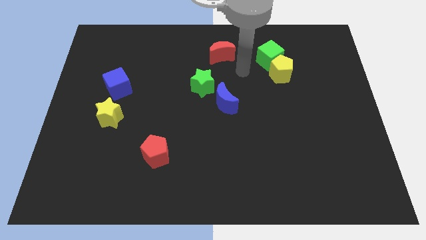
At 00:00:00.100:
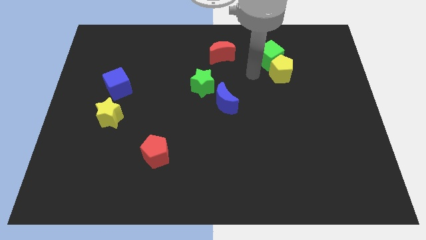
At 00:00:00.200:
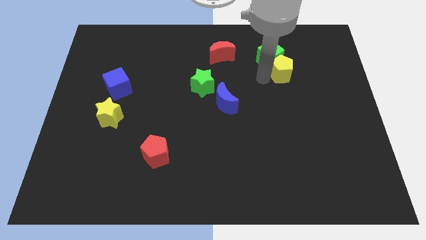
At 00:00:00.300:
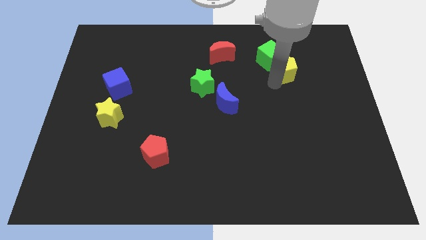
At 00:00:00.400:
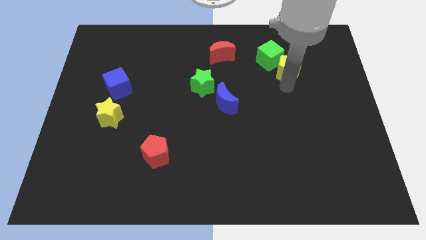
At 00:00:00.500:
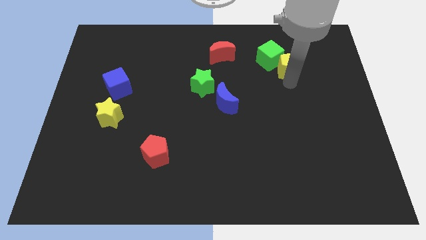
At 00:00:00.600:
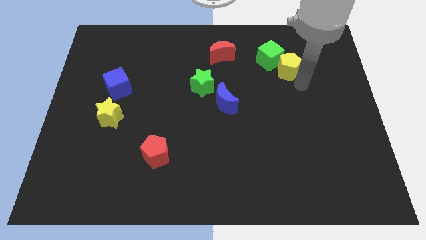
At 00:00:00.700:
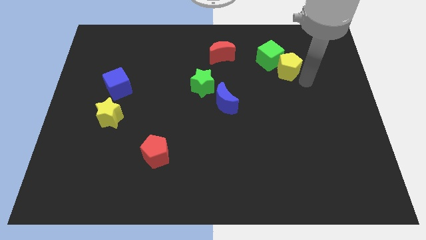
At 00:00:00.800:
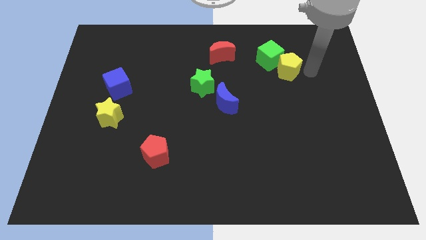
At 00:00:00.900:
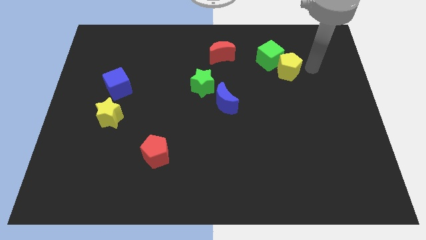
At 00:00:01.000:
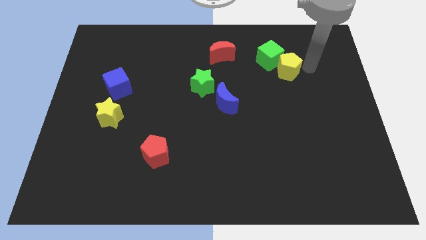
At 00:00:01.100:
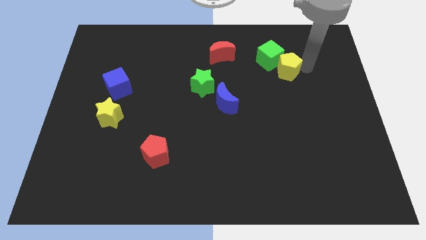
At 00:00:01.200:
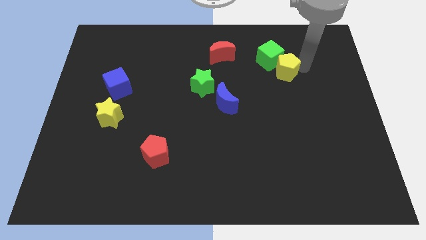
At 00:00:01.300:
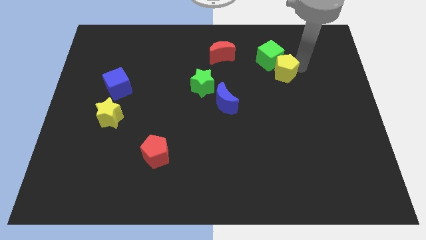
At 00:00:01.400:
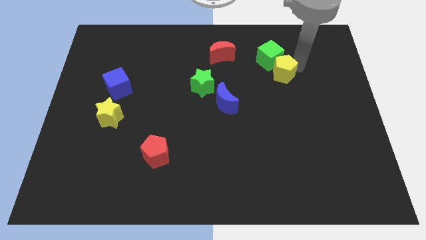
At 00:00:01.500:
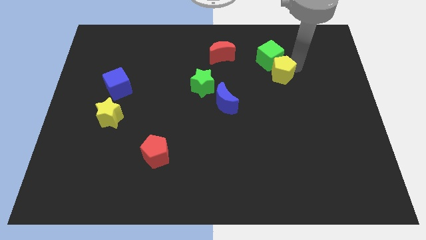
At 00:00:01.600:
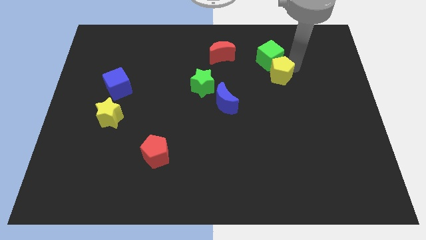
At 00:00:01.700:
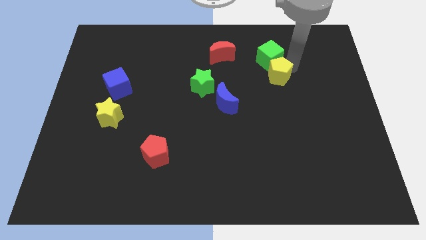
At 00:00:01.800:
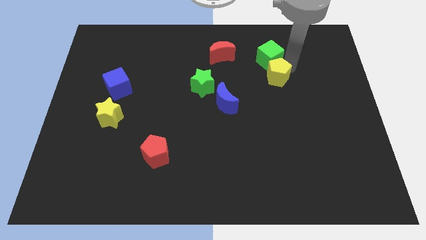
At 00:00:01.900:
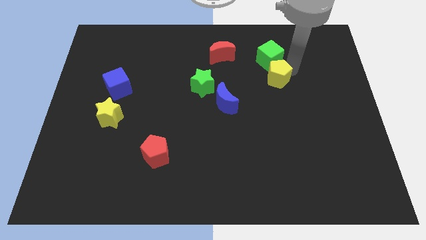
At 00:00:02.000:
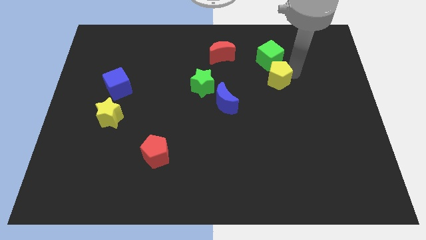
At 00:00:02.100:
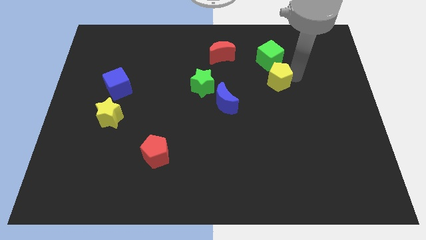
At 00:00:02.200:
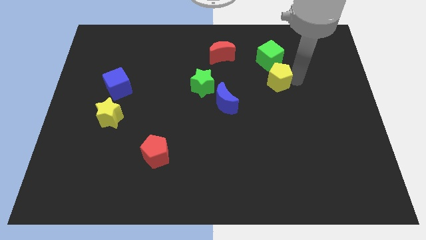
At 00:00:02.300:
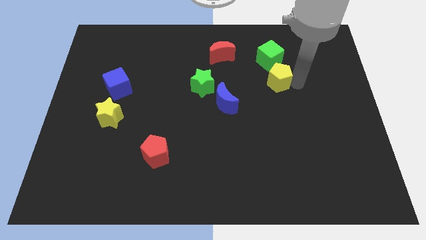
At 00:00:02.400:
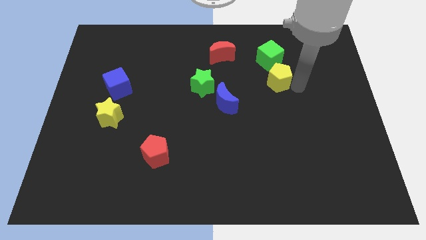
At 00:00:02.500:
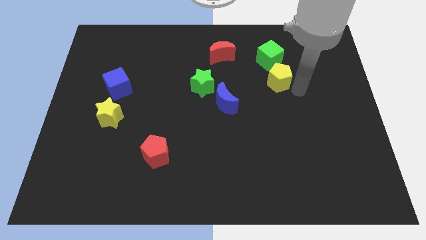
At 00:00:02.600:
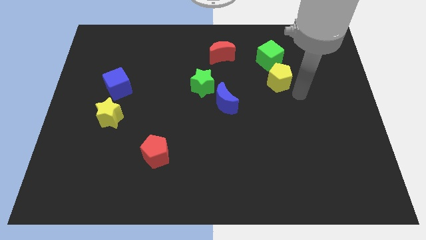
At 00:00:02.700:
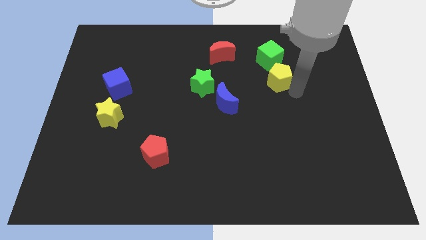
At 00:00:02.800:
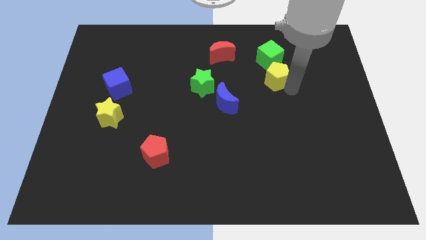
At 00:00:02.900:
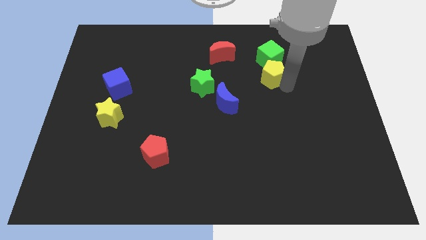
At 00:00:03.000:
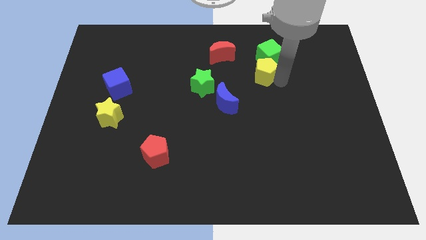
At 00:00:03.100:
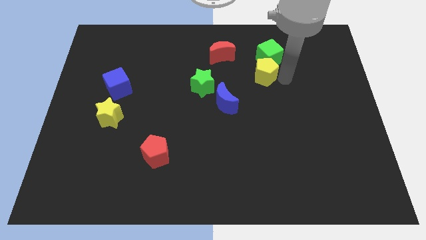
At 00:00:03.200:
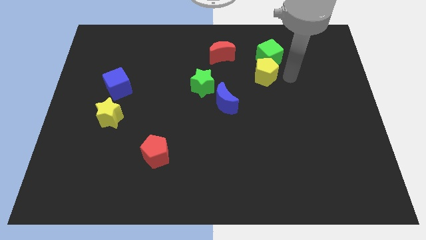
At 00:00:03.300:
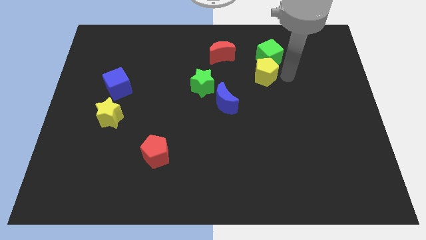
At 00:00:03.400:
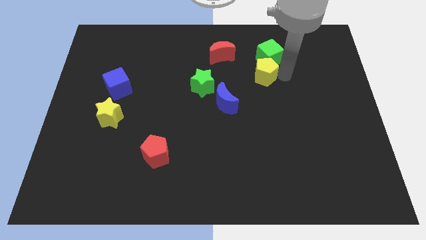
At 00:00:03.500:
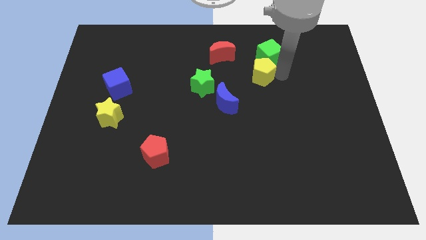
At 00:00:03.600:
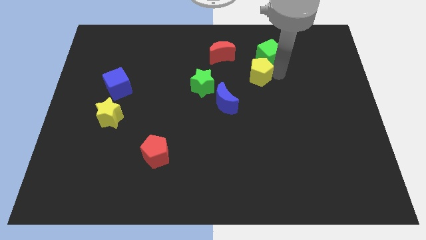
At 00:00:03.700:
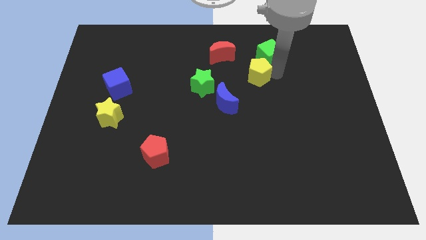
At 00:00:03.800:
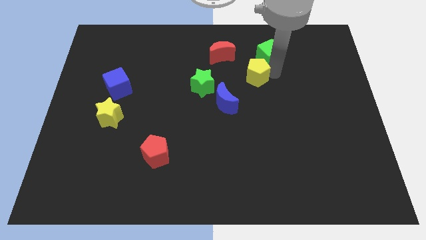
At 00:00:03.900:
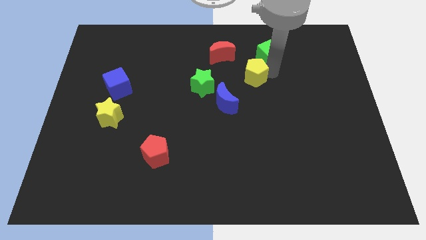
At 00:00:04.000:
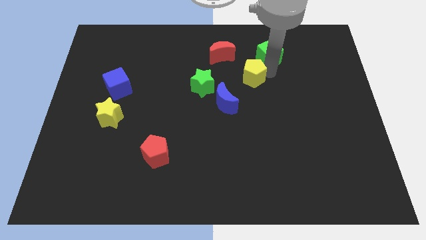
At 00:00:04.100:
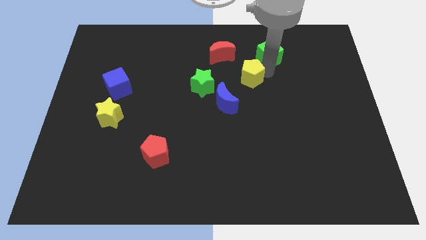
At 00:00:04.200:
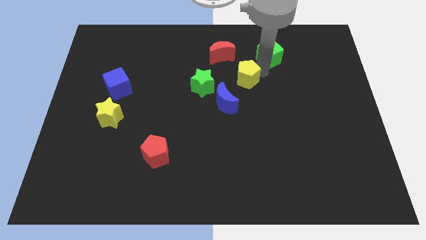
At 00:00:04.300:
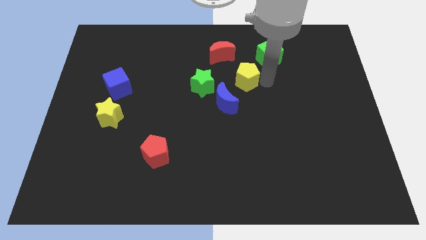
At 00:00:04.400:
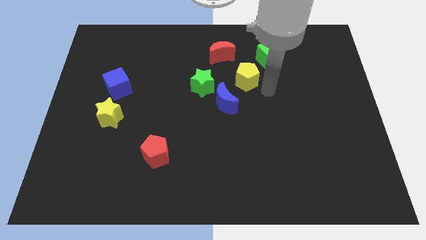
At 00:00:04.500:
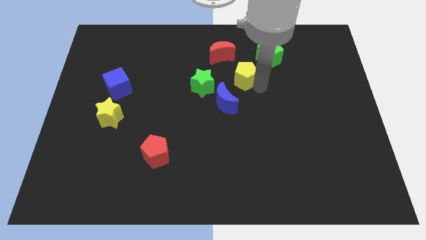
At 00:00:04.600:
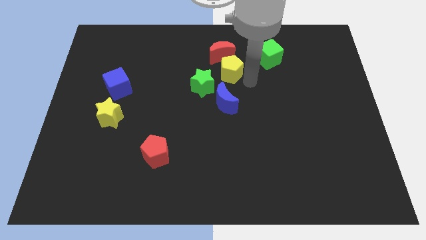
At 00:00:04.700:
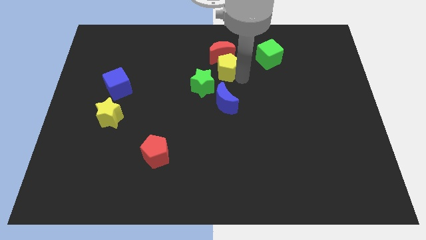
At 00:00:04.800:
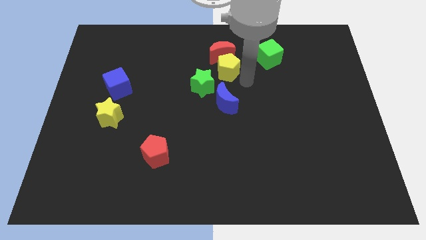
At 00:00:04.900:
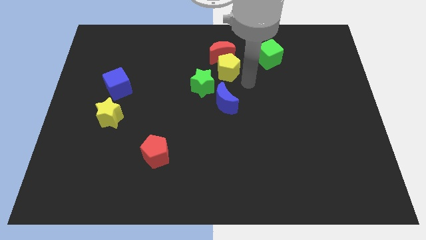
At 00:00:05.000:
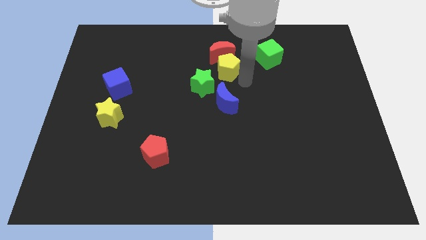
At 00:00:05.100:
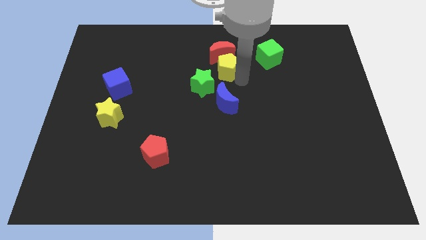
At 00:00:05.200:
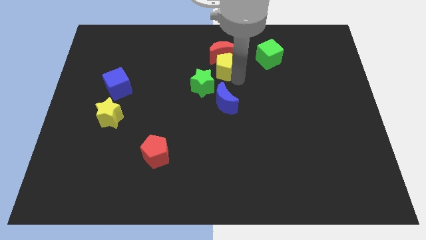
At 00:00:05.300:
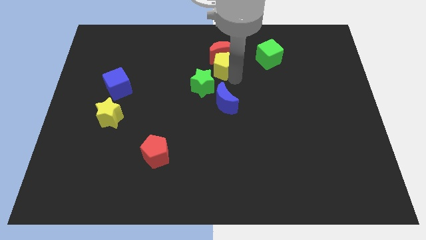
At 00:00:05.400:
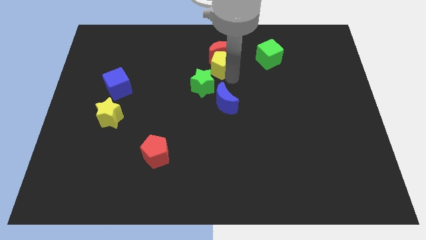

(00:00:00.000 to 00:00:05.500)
move the yellow pentagon to the top of the green star

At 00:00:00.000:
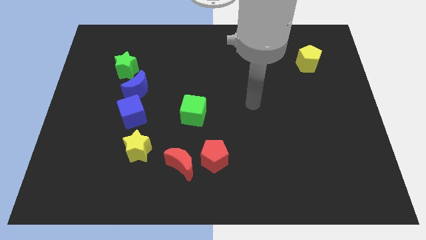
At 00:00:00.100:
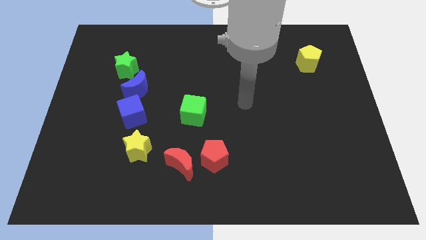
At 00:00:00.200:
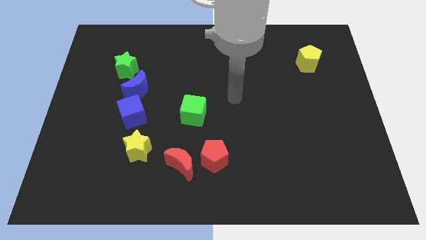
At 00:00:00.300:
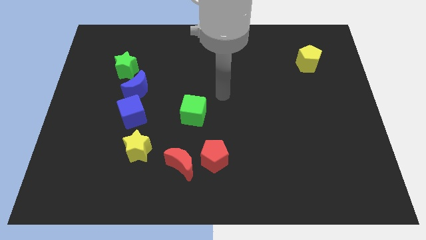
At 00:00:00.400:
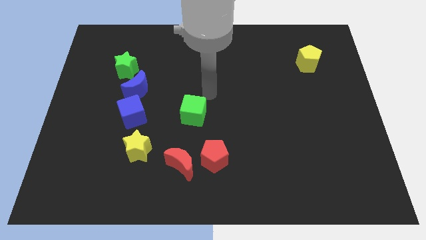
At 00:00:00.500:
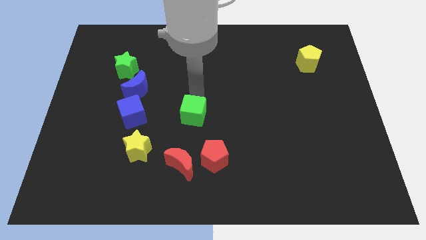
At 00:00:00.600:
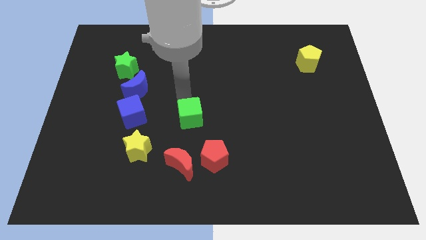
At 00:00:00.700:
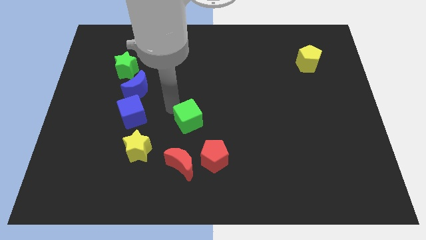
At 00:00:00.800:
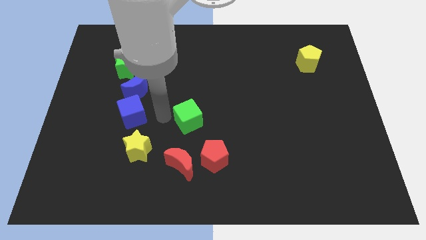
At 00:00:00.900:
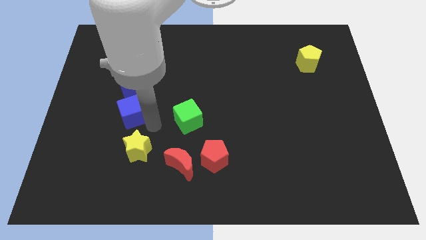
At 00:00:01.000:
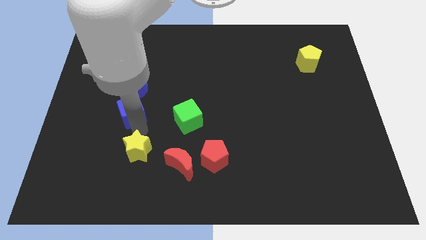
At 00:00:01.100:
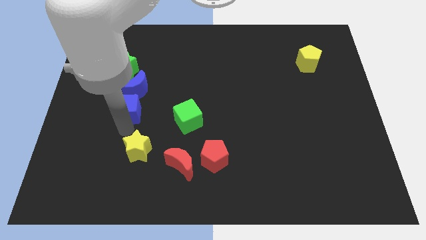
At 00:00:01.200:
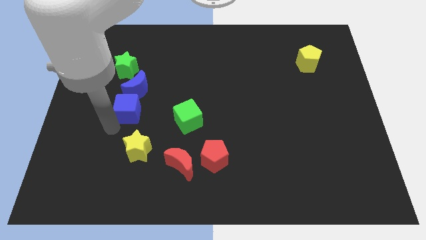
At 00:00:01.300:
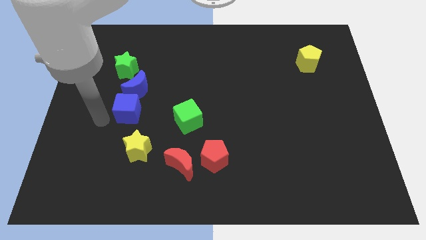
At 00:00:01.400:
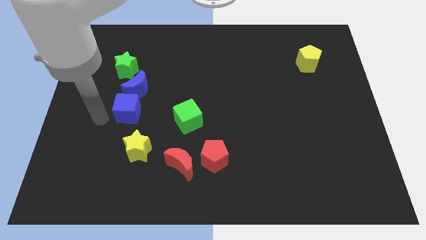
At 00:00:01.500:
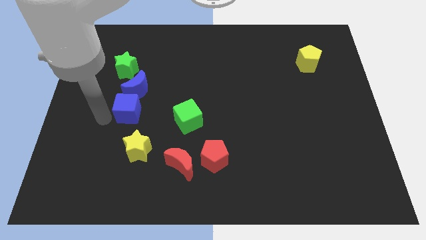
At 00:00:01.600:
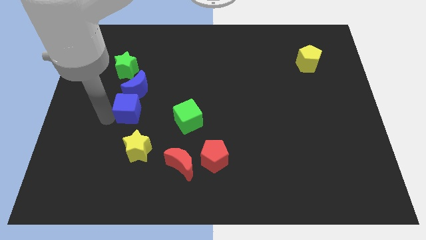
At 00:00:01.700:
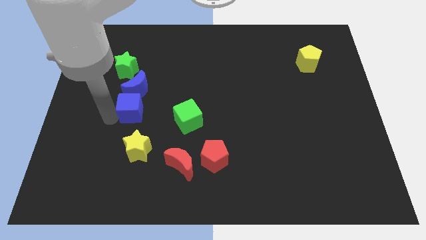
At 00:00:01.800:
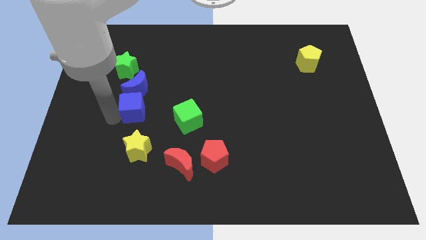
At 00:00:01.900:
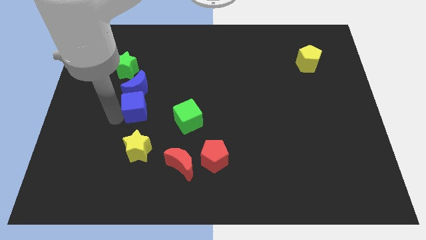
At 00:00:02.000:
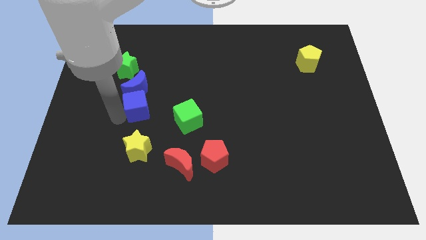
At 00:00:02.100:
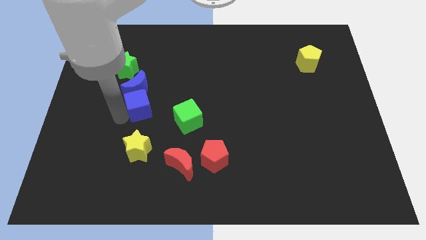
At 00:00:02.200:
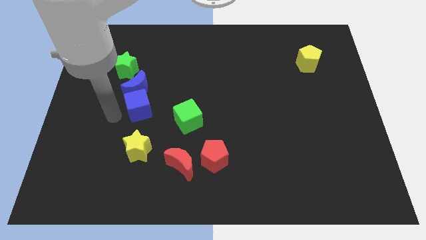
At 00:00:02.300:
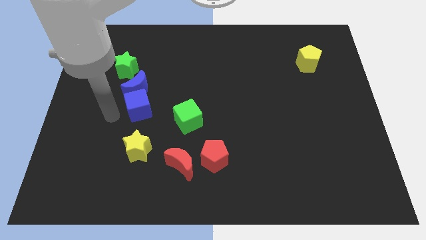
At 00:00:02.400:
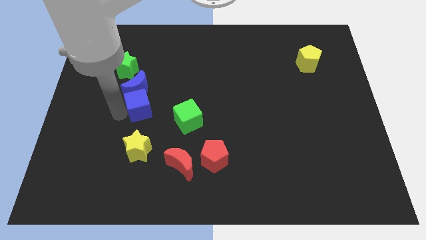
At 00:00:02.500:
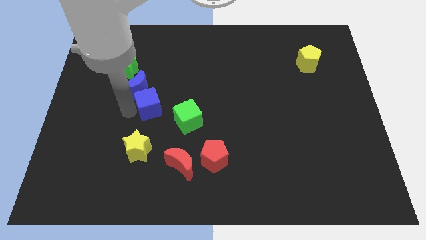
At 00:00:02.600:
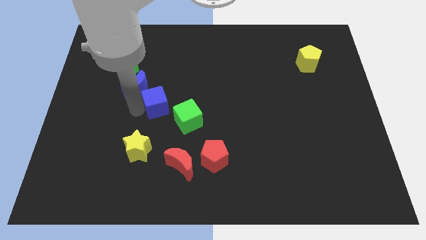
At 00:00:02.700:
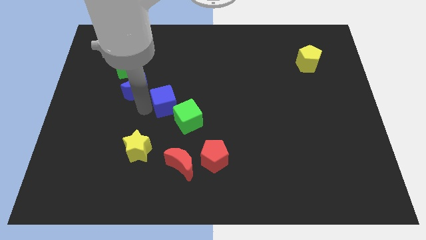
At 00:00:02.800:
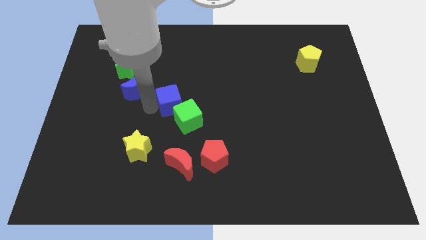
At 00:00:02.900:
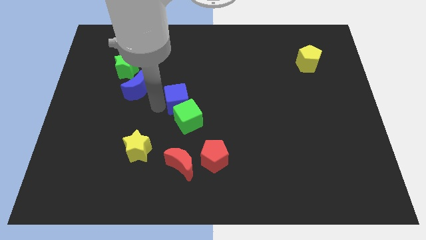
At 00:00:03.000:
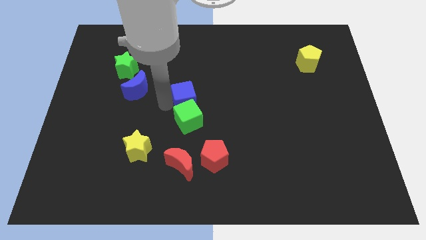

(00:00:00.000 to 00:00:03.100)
push the blue cube to the top right side of the green cube
